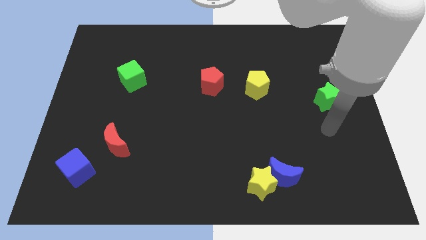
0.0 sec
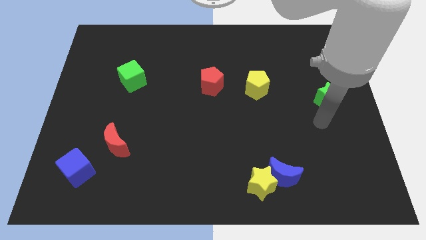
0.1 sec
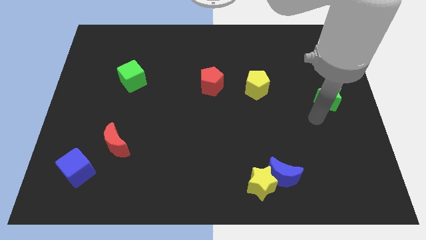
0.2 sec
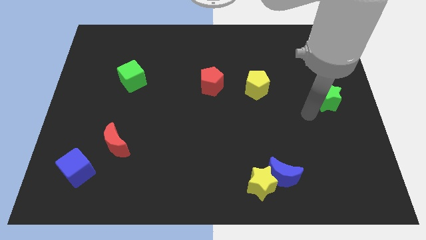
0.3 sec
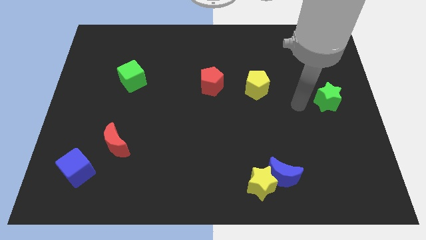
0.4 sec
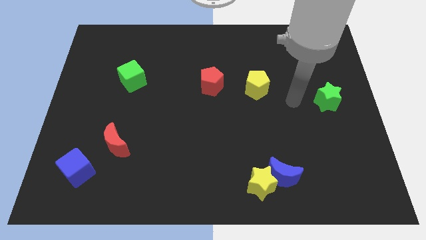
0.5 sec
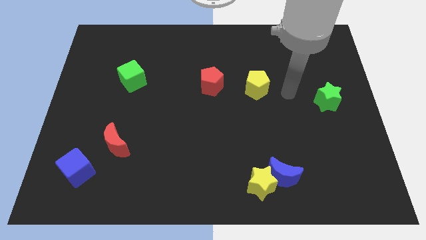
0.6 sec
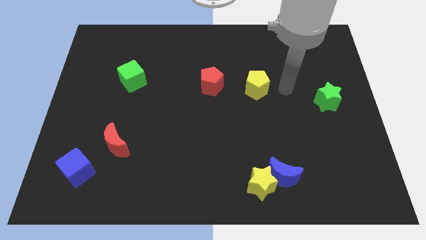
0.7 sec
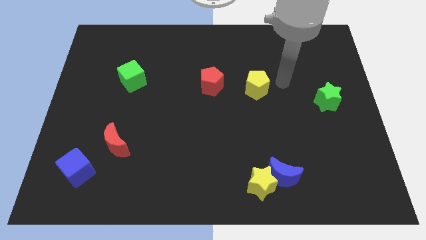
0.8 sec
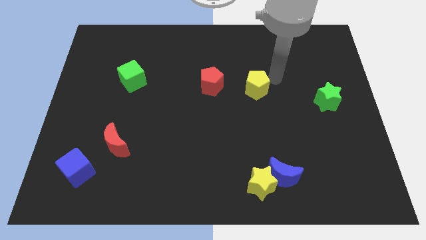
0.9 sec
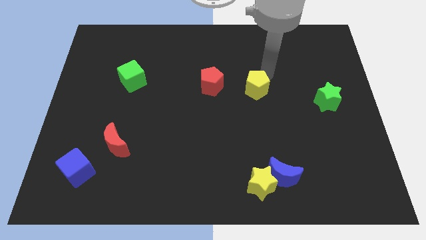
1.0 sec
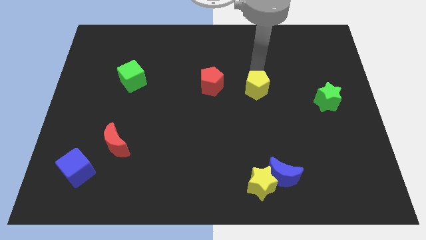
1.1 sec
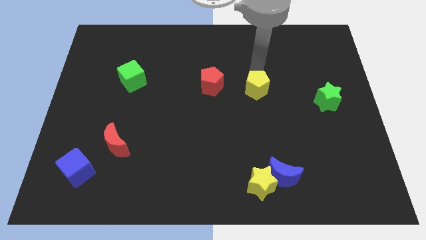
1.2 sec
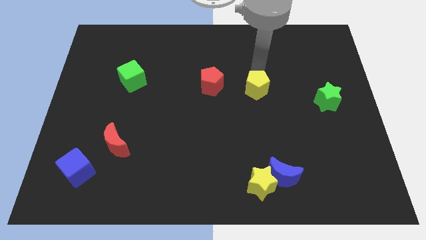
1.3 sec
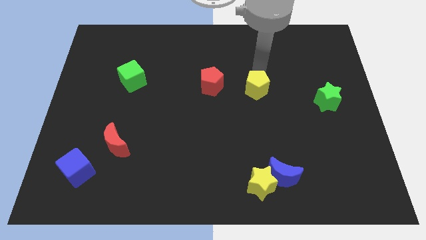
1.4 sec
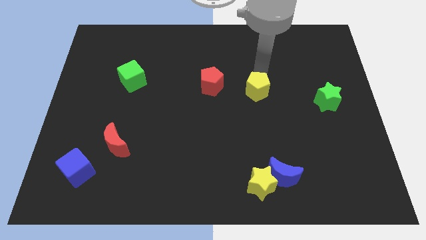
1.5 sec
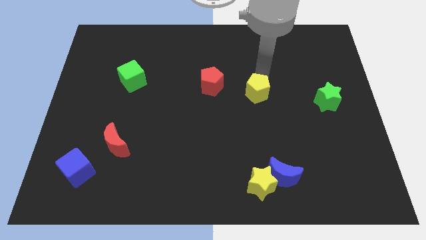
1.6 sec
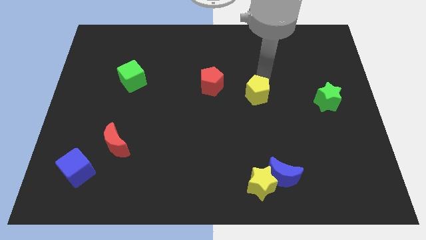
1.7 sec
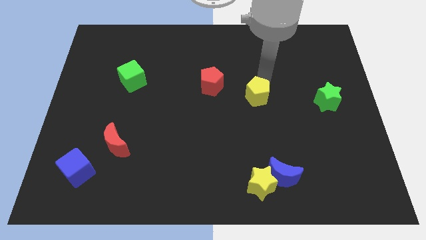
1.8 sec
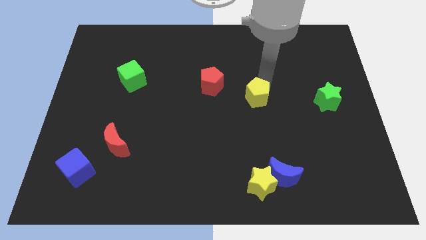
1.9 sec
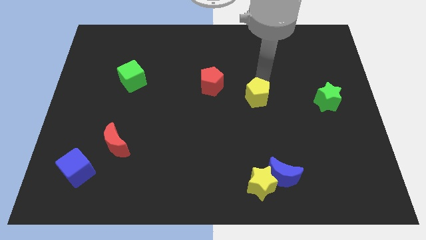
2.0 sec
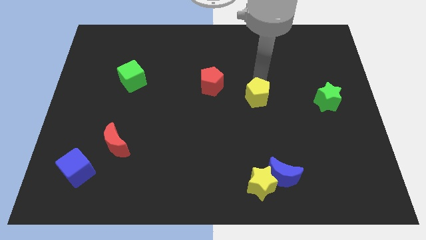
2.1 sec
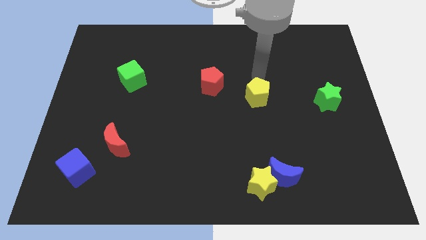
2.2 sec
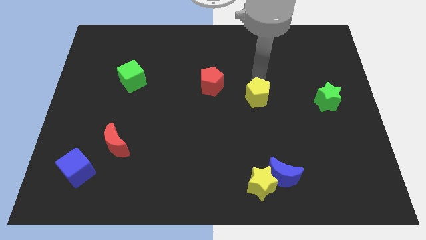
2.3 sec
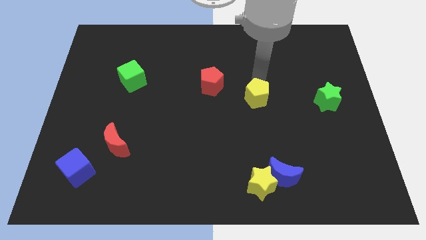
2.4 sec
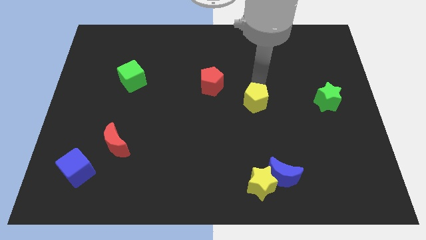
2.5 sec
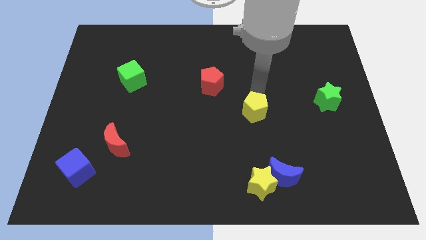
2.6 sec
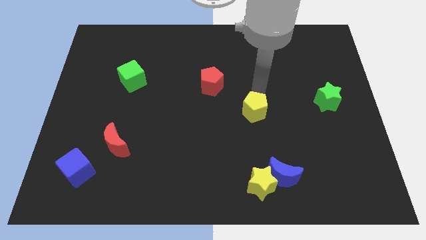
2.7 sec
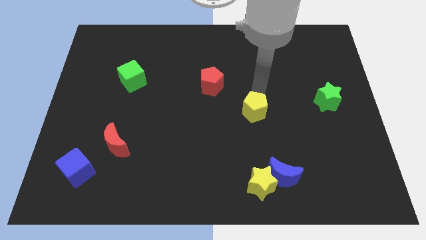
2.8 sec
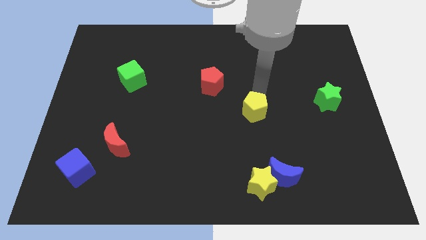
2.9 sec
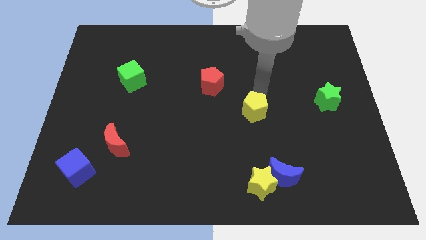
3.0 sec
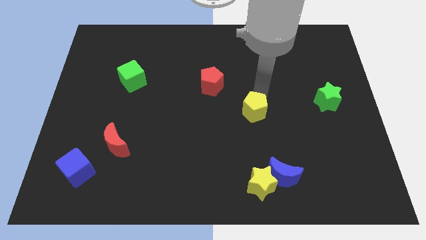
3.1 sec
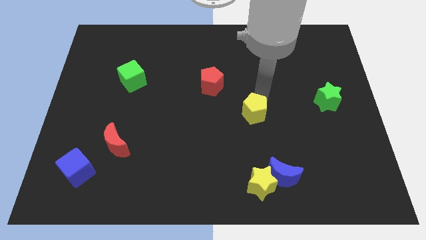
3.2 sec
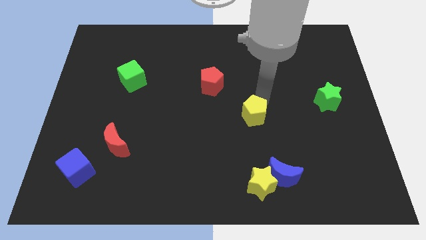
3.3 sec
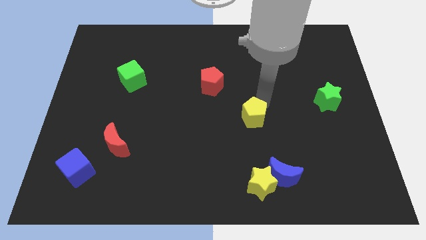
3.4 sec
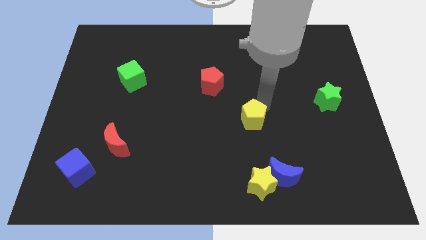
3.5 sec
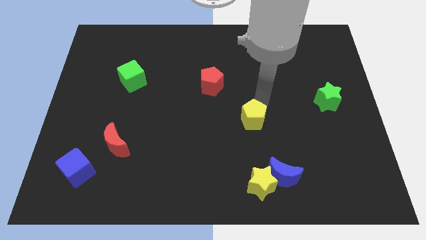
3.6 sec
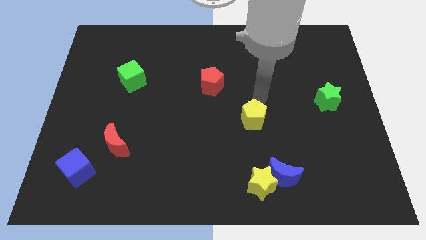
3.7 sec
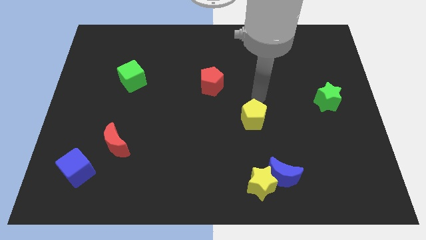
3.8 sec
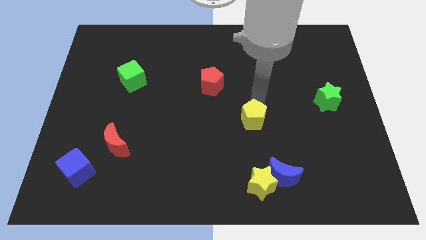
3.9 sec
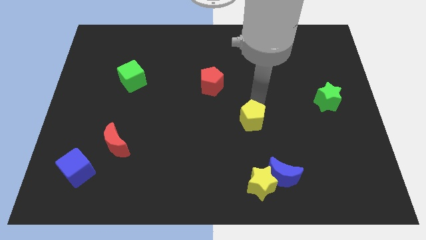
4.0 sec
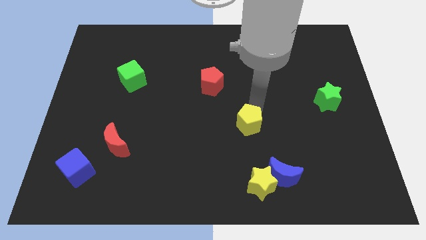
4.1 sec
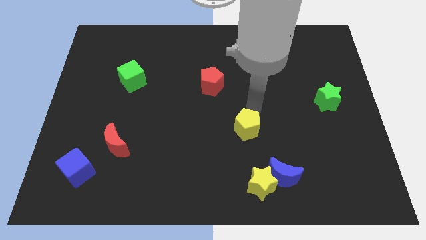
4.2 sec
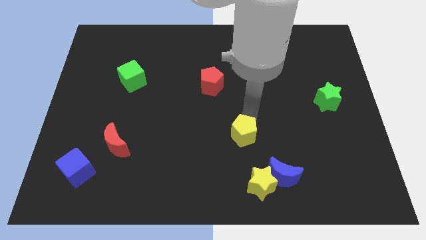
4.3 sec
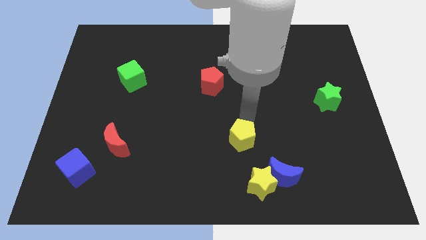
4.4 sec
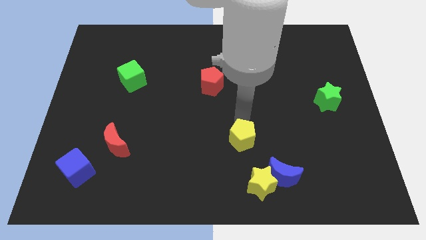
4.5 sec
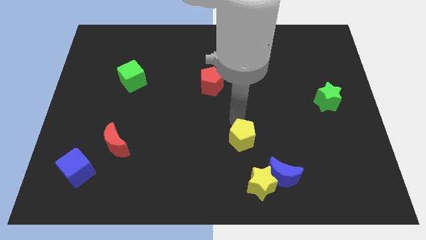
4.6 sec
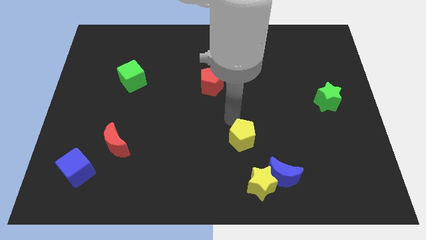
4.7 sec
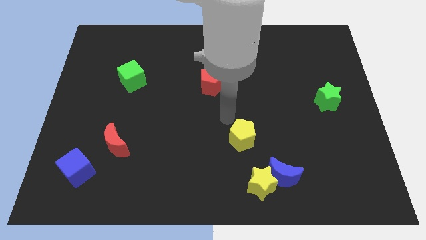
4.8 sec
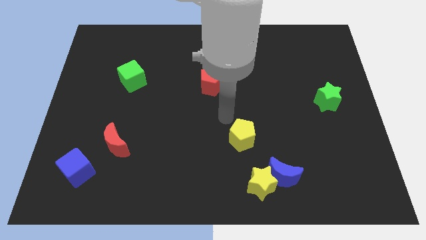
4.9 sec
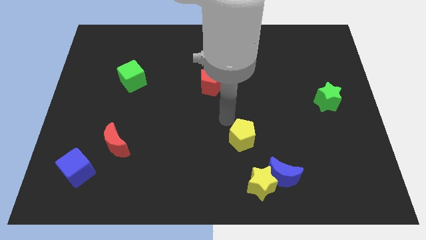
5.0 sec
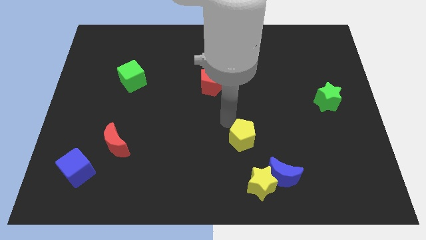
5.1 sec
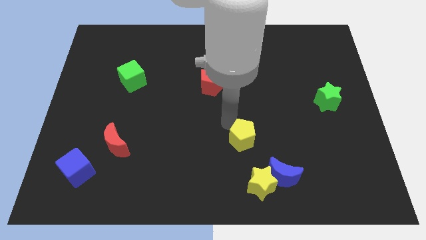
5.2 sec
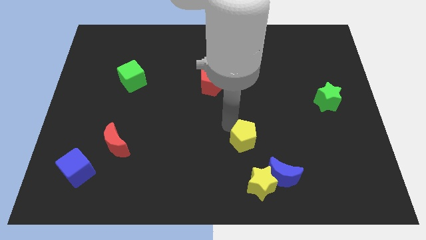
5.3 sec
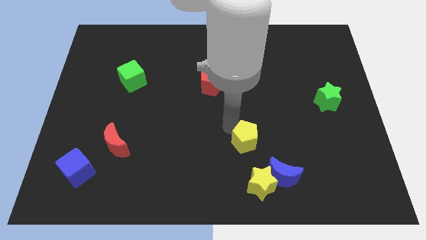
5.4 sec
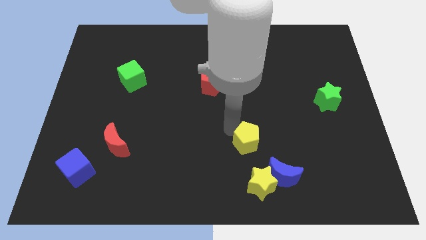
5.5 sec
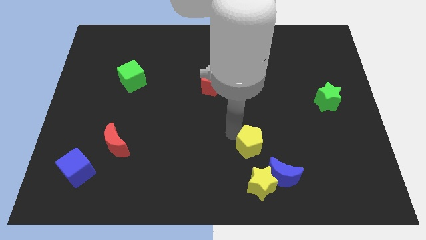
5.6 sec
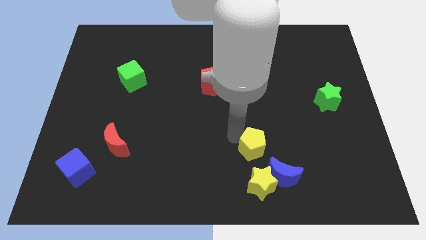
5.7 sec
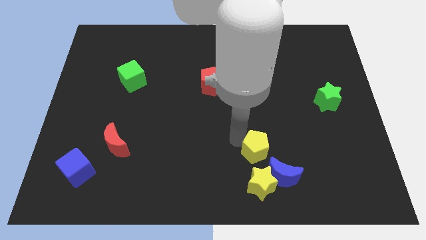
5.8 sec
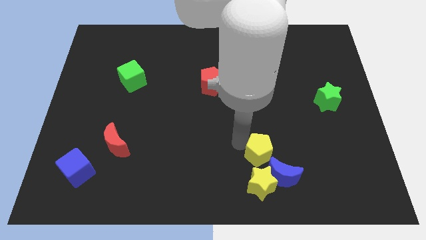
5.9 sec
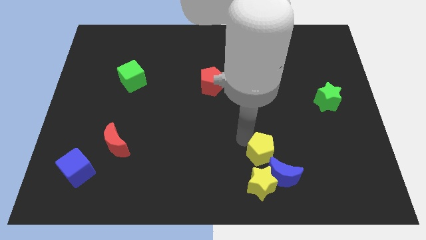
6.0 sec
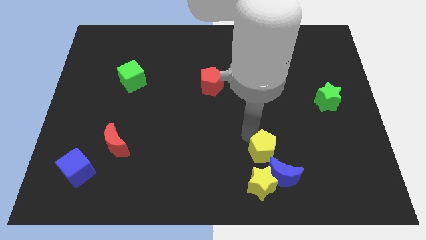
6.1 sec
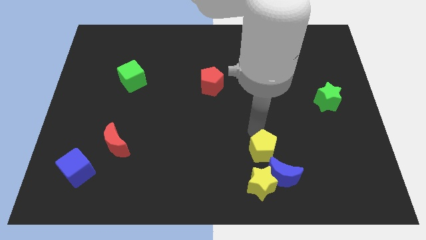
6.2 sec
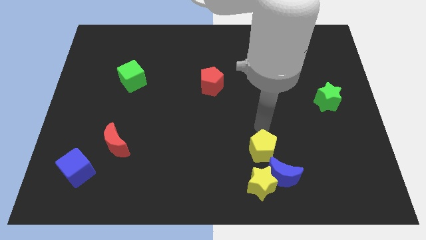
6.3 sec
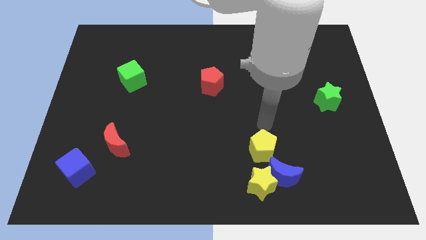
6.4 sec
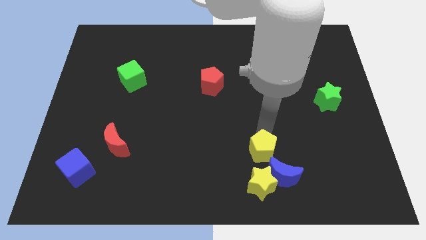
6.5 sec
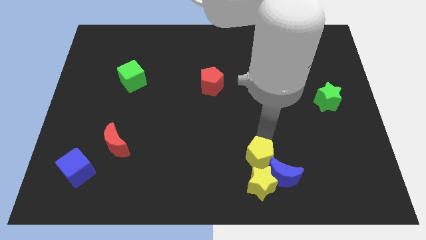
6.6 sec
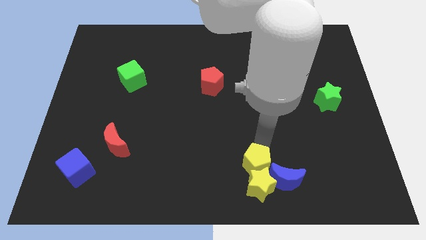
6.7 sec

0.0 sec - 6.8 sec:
put the yellow pentagon close to the yellow star

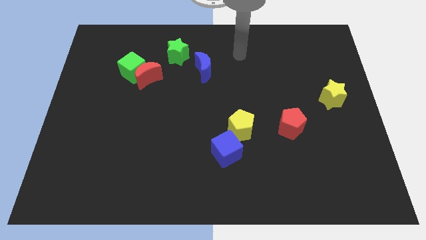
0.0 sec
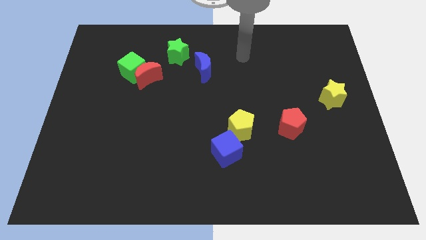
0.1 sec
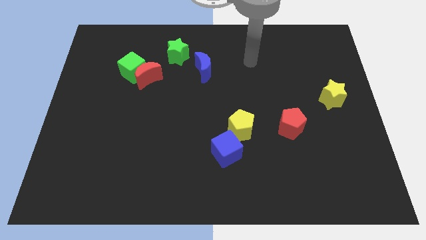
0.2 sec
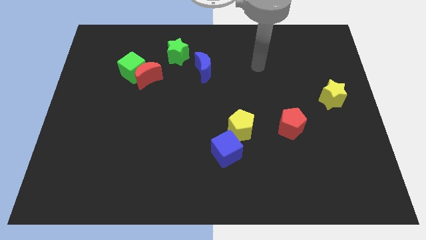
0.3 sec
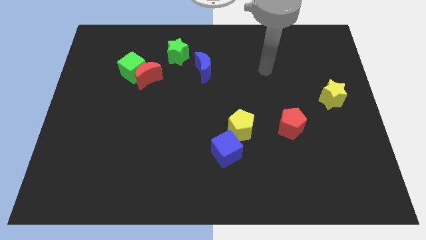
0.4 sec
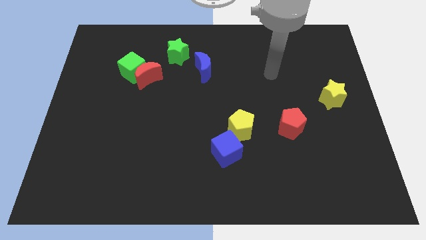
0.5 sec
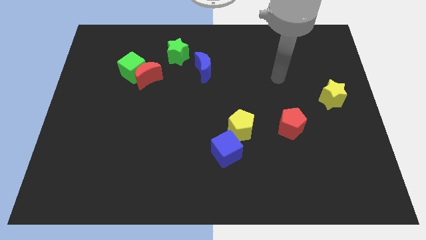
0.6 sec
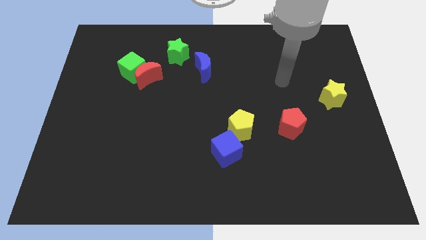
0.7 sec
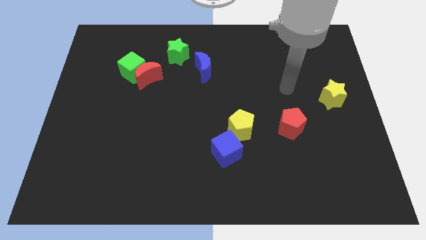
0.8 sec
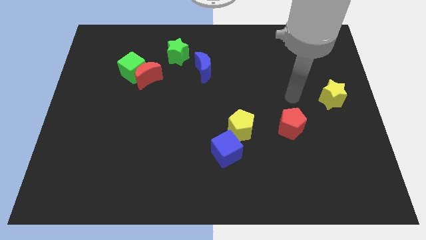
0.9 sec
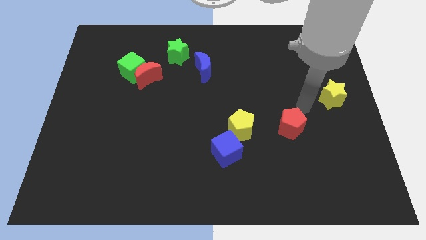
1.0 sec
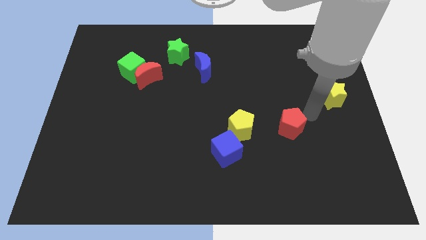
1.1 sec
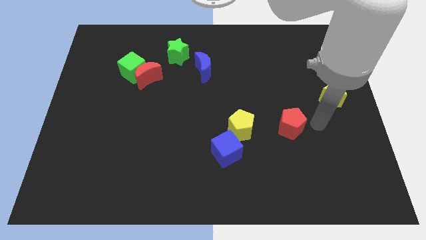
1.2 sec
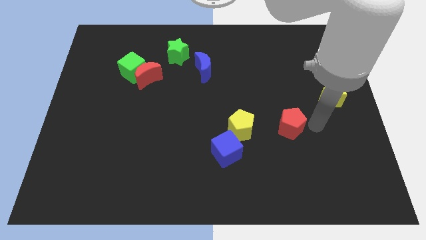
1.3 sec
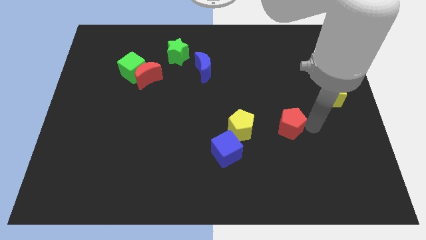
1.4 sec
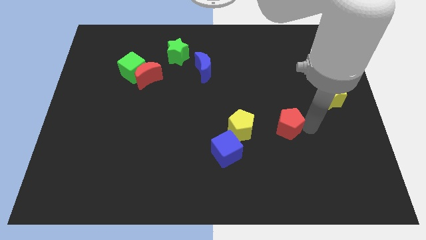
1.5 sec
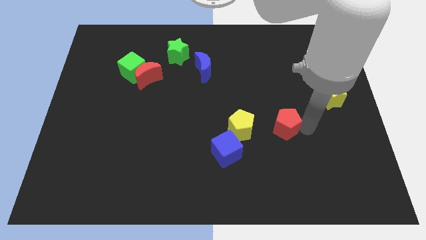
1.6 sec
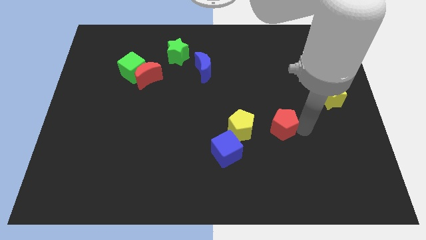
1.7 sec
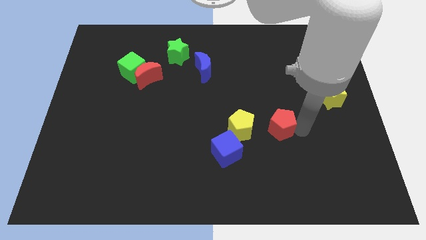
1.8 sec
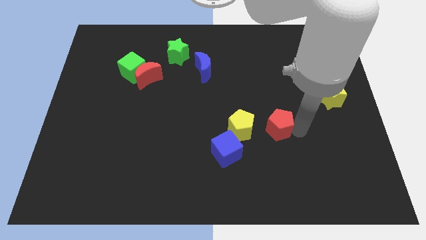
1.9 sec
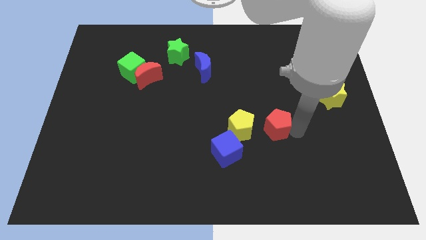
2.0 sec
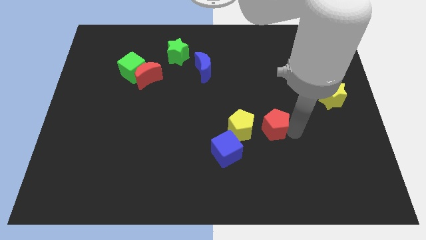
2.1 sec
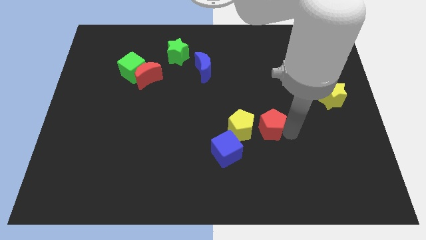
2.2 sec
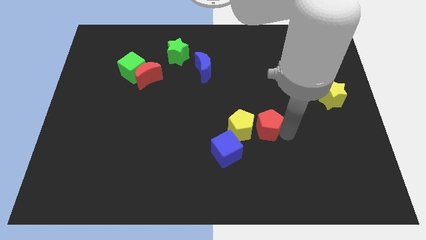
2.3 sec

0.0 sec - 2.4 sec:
push the red pentagon towards the yellow pentagon
